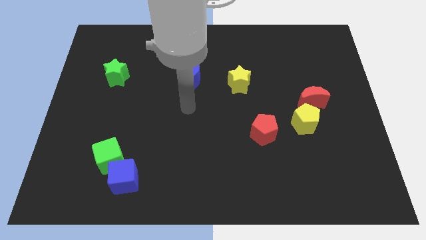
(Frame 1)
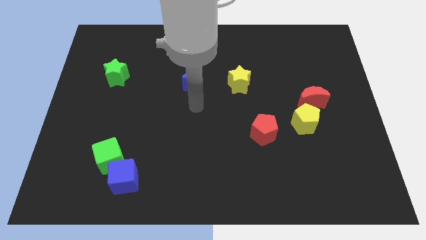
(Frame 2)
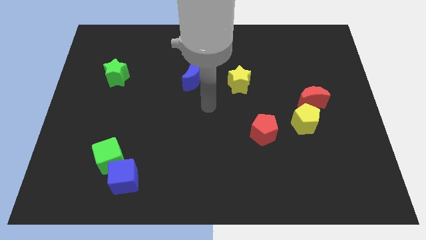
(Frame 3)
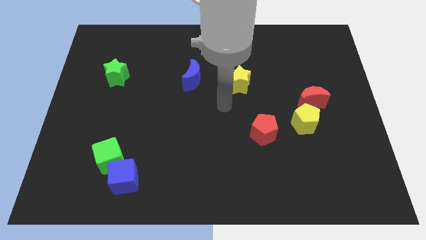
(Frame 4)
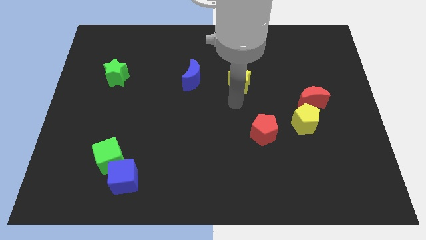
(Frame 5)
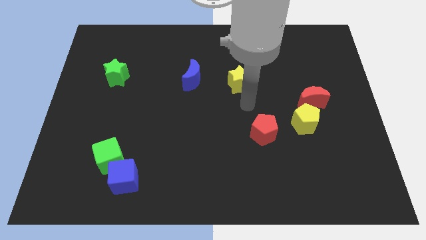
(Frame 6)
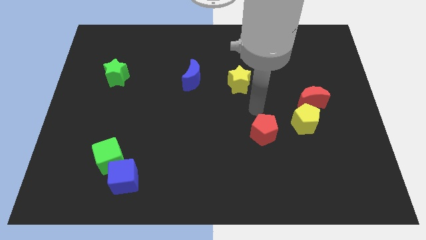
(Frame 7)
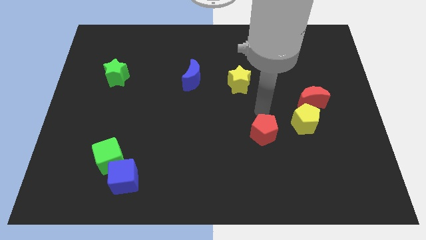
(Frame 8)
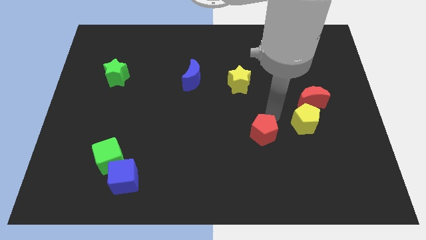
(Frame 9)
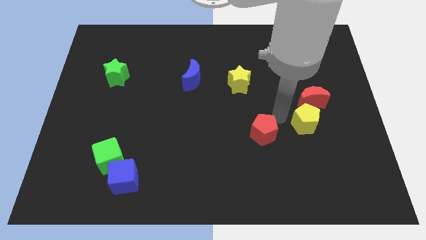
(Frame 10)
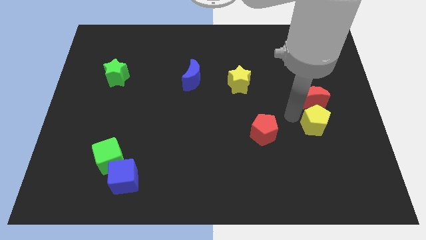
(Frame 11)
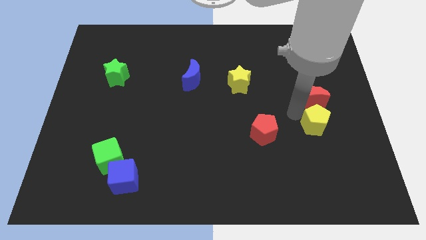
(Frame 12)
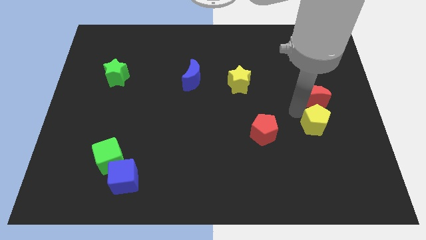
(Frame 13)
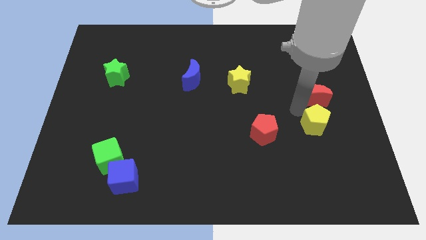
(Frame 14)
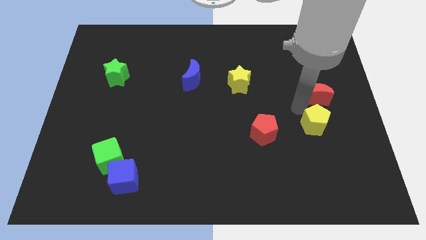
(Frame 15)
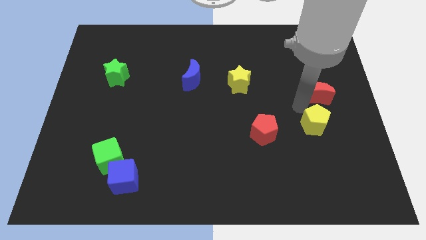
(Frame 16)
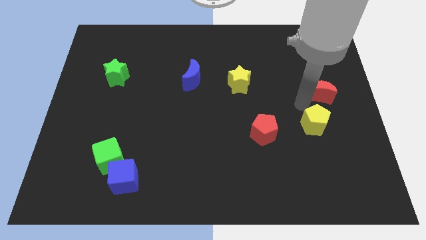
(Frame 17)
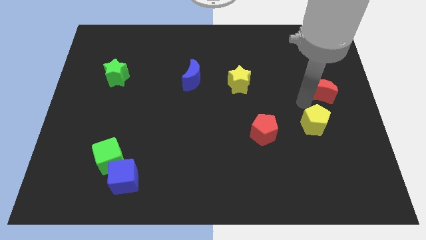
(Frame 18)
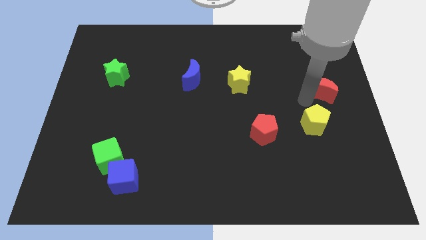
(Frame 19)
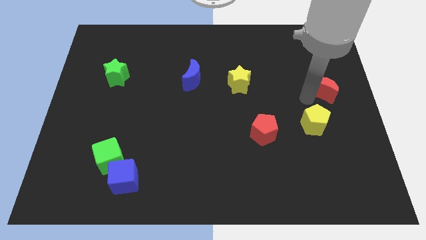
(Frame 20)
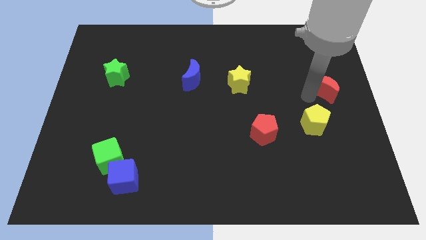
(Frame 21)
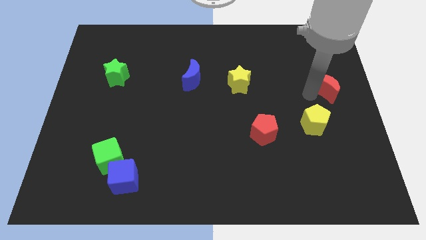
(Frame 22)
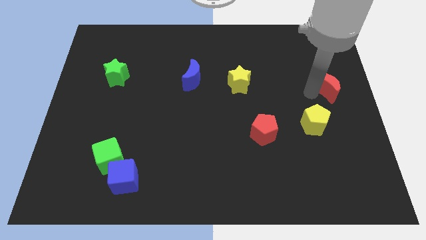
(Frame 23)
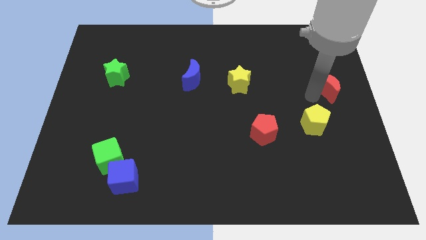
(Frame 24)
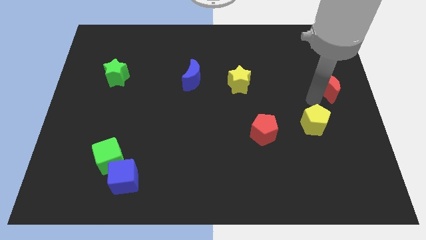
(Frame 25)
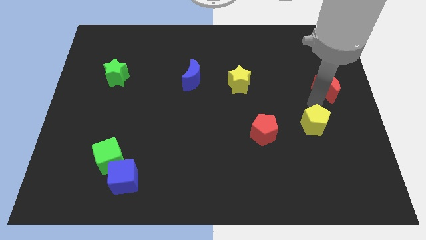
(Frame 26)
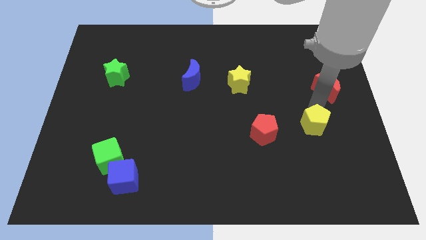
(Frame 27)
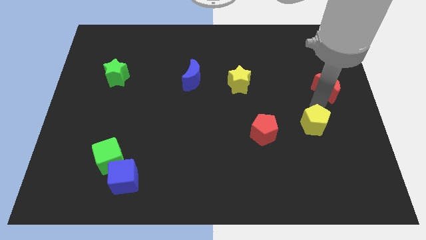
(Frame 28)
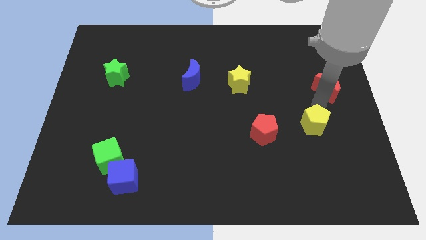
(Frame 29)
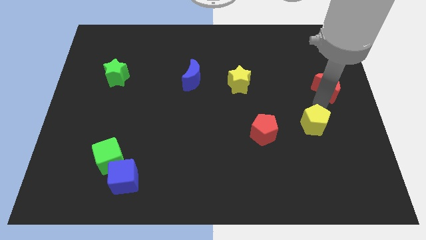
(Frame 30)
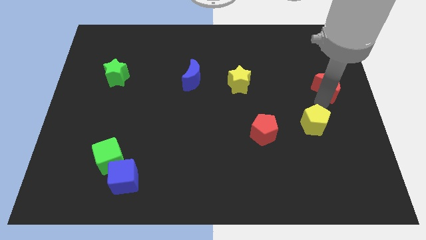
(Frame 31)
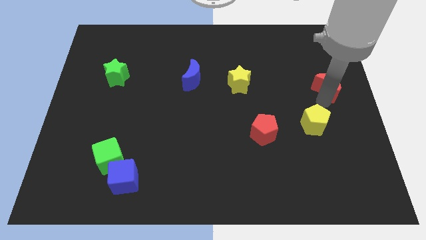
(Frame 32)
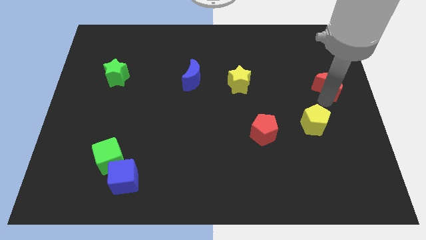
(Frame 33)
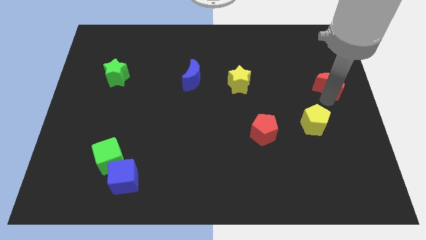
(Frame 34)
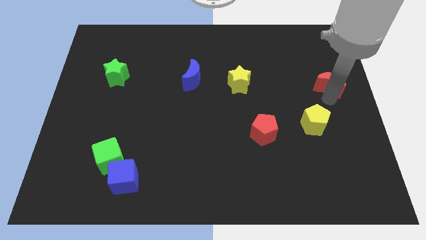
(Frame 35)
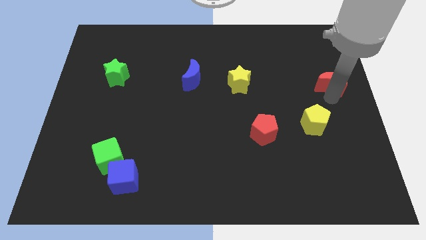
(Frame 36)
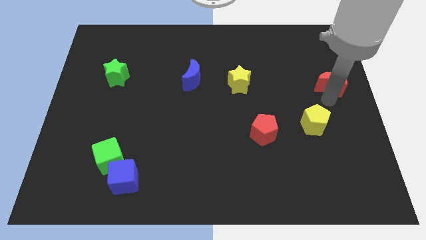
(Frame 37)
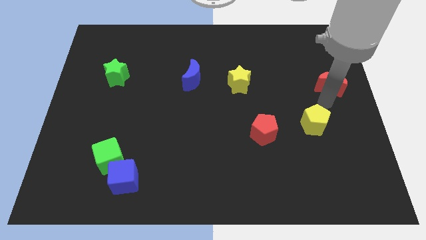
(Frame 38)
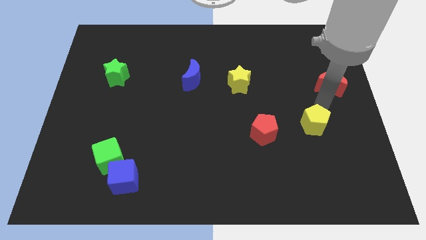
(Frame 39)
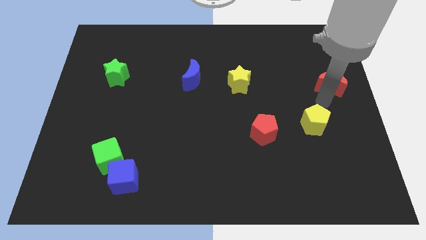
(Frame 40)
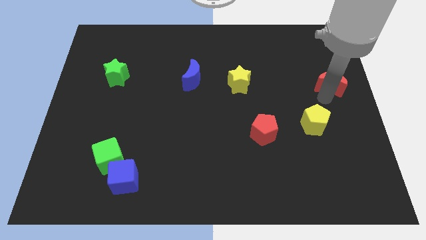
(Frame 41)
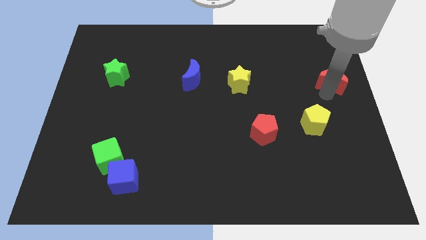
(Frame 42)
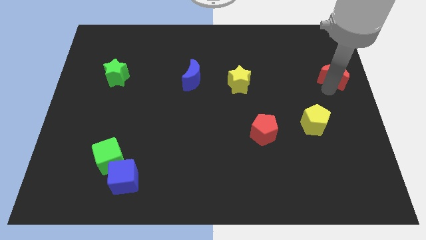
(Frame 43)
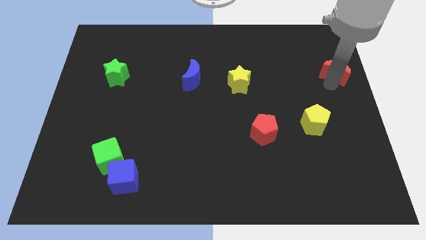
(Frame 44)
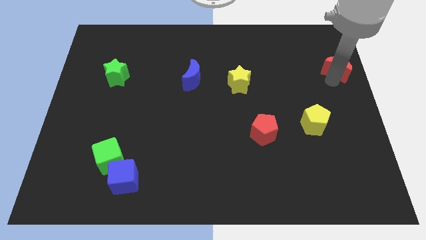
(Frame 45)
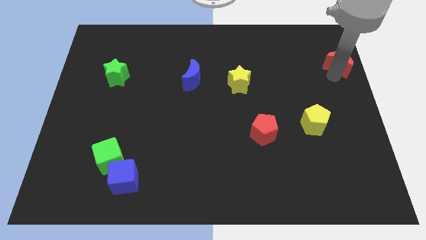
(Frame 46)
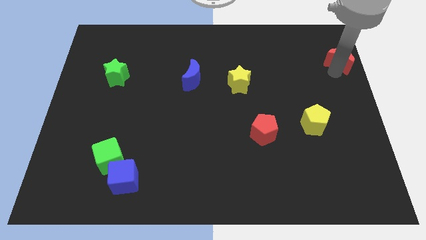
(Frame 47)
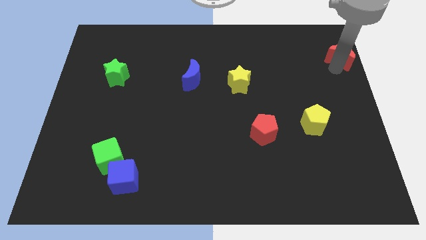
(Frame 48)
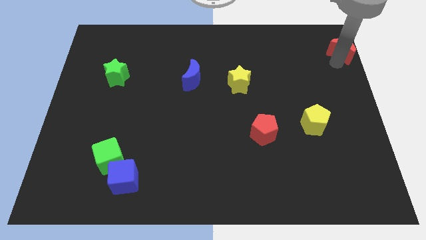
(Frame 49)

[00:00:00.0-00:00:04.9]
put the red moon to the top right of the board

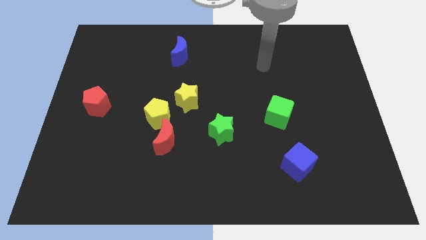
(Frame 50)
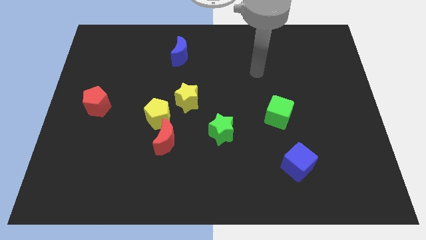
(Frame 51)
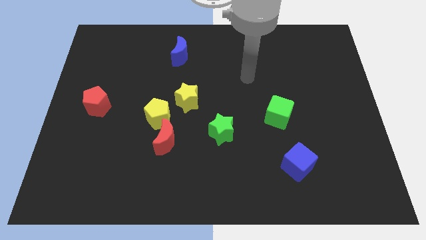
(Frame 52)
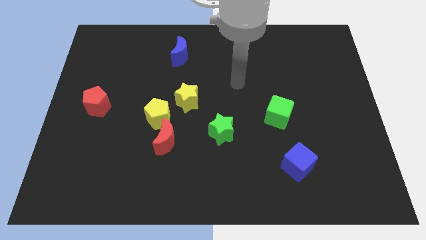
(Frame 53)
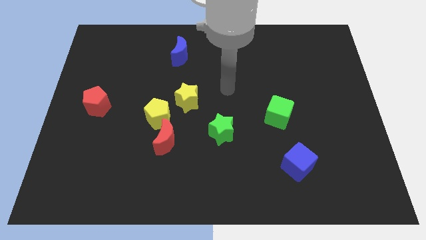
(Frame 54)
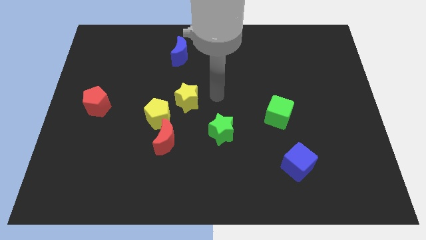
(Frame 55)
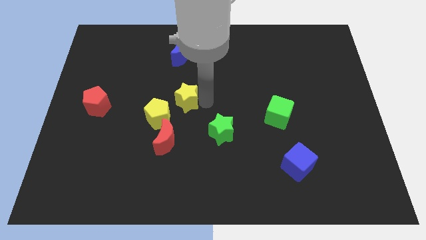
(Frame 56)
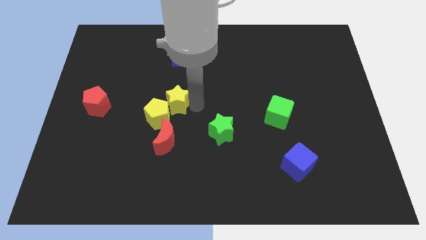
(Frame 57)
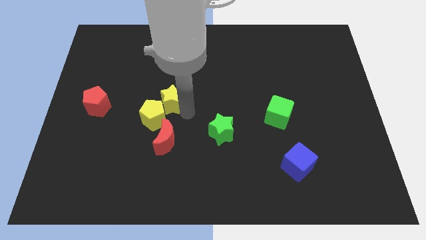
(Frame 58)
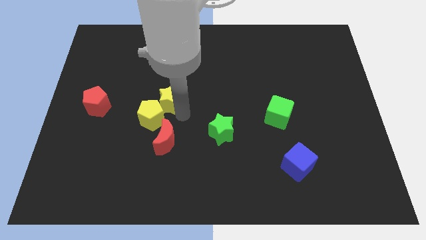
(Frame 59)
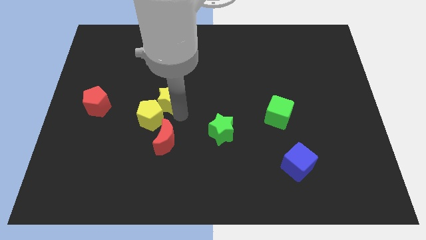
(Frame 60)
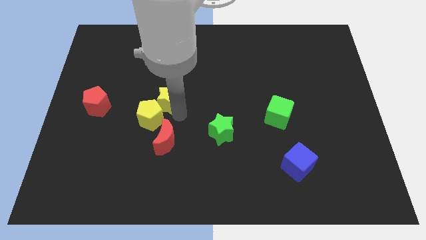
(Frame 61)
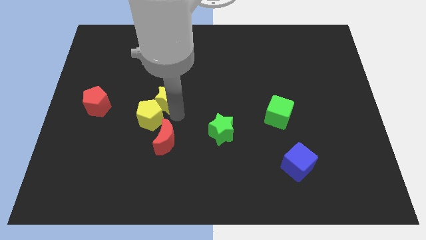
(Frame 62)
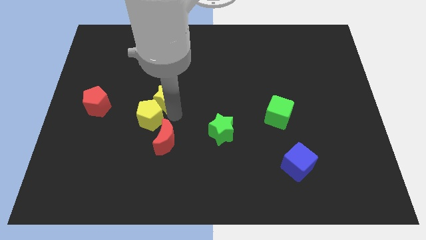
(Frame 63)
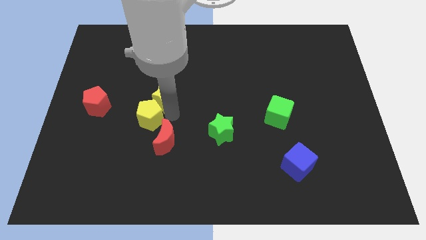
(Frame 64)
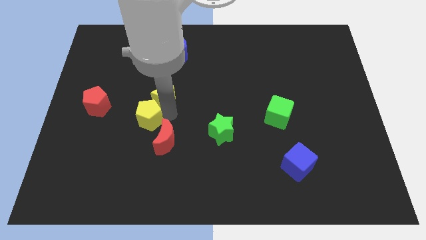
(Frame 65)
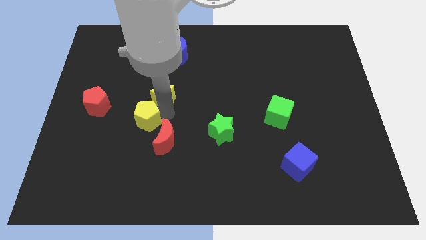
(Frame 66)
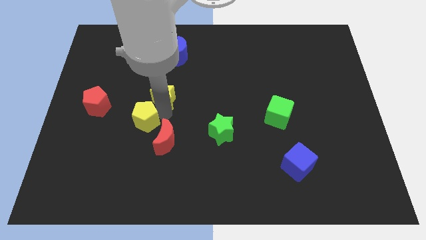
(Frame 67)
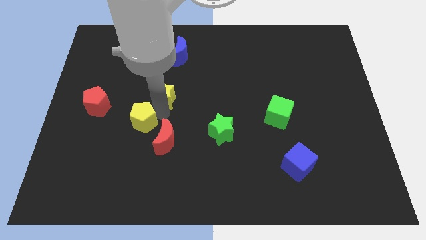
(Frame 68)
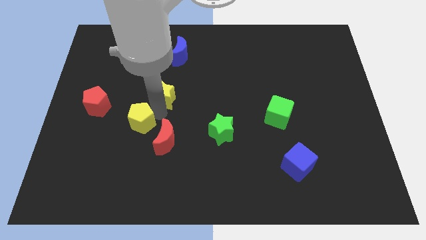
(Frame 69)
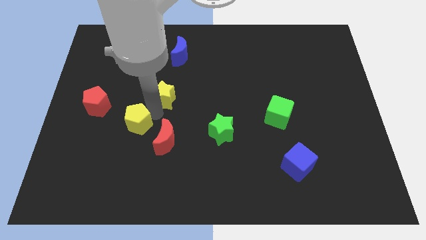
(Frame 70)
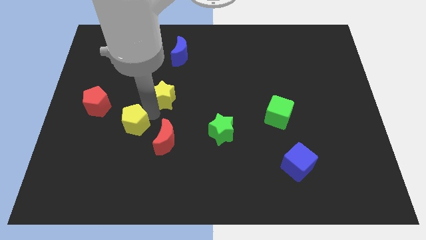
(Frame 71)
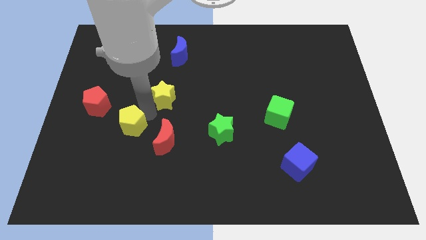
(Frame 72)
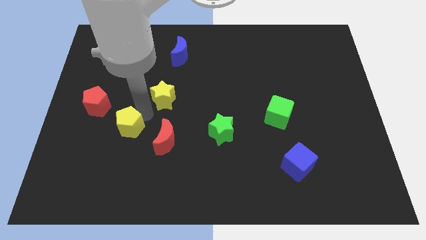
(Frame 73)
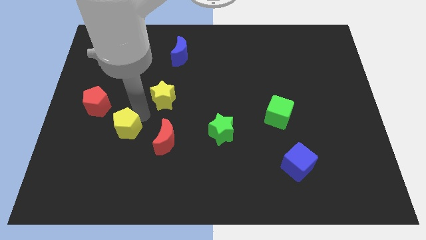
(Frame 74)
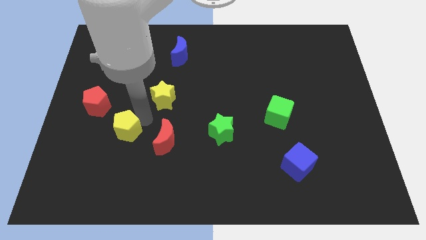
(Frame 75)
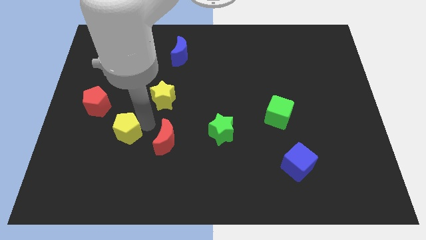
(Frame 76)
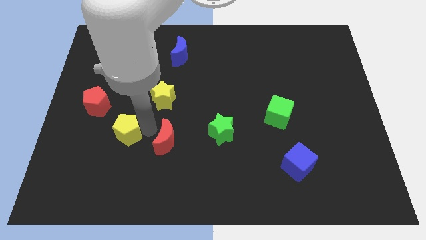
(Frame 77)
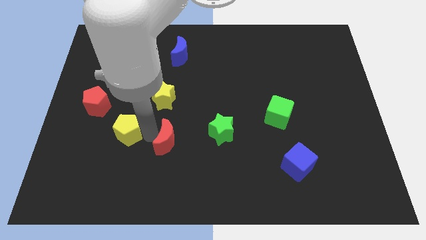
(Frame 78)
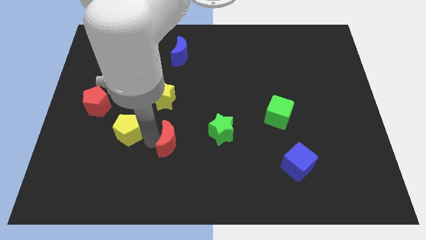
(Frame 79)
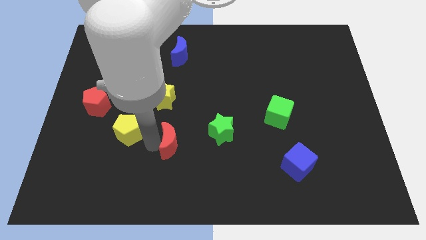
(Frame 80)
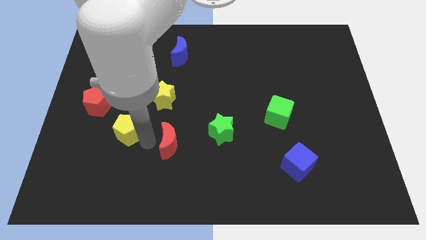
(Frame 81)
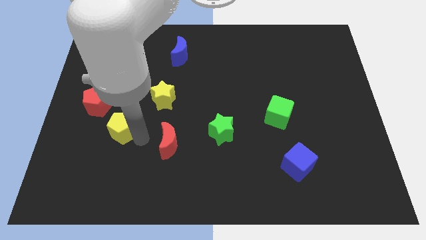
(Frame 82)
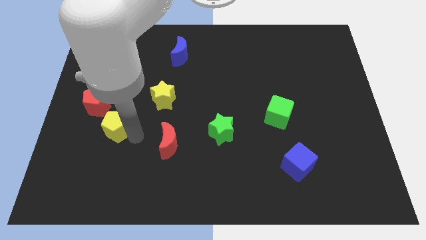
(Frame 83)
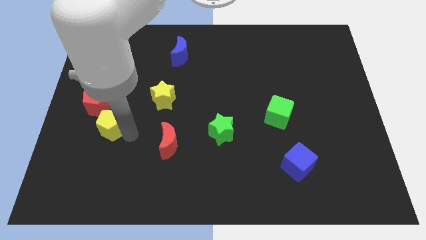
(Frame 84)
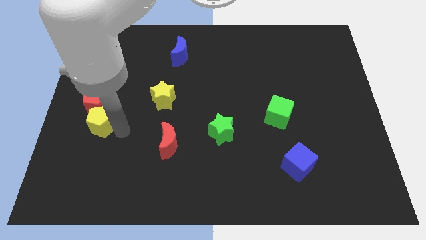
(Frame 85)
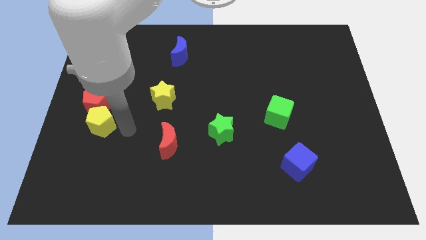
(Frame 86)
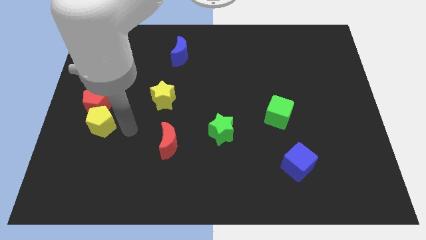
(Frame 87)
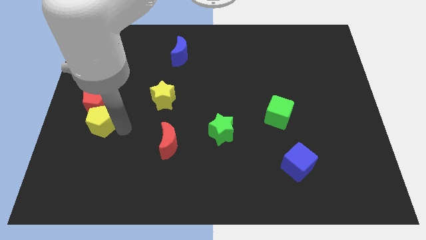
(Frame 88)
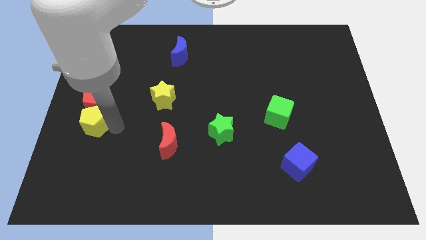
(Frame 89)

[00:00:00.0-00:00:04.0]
put the yellow pentagon to the center left
